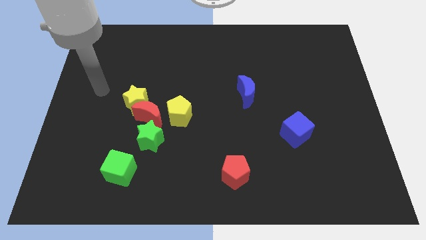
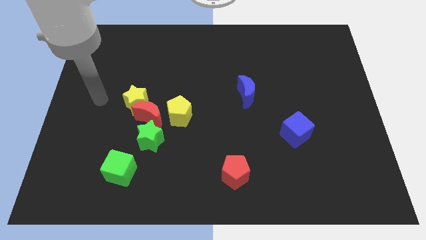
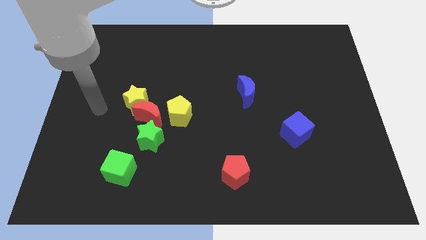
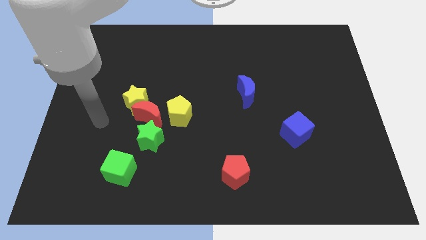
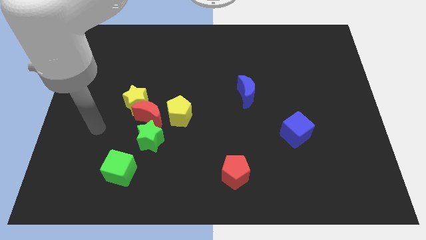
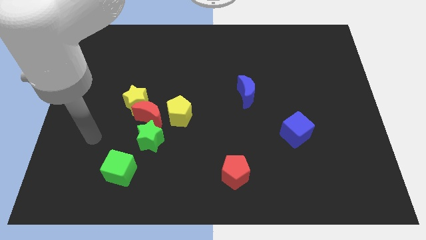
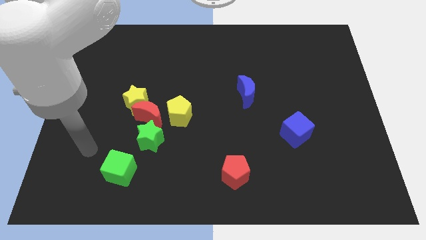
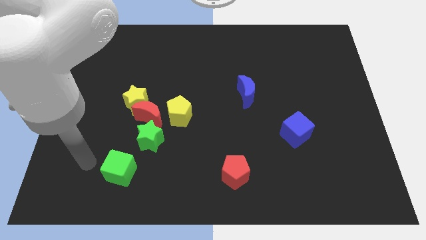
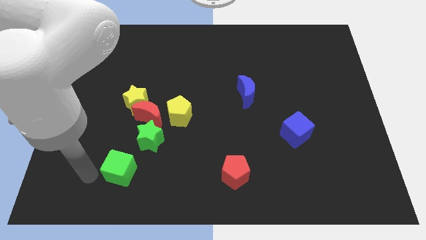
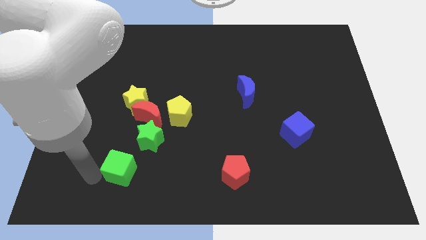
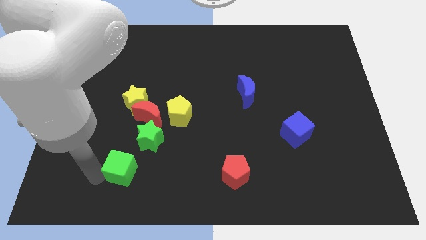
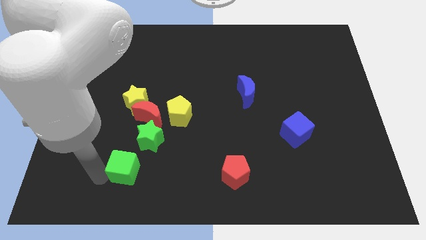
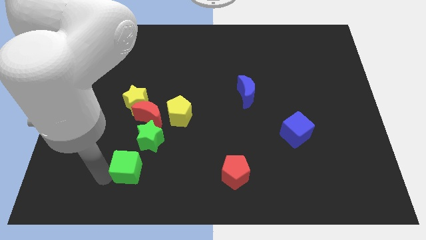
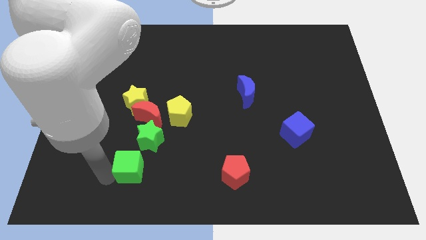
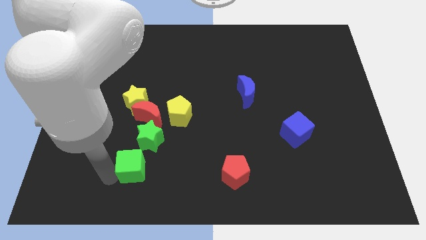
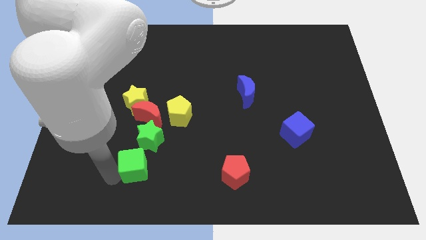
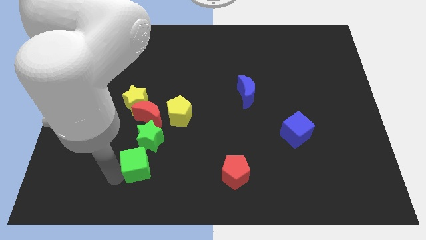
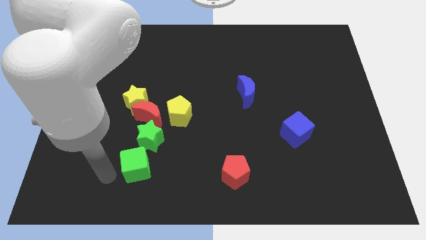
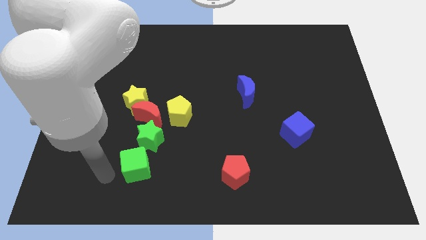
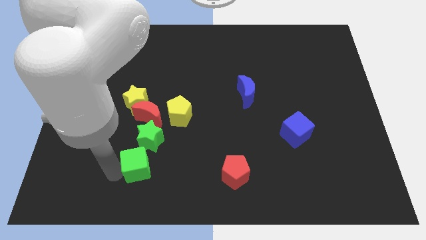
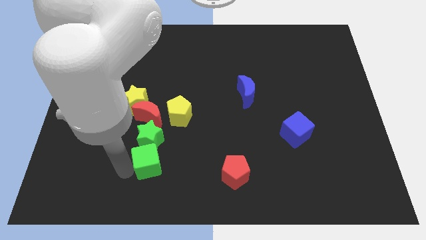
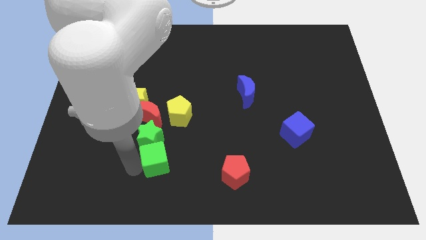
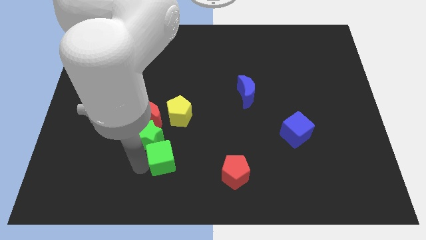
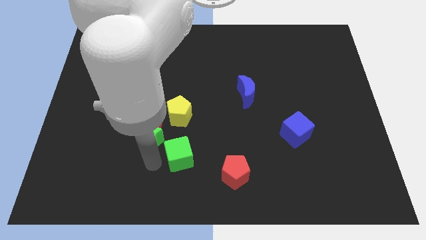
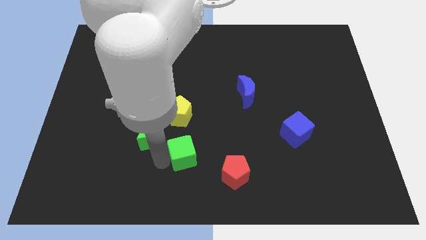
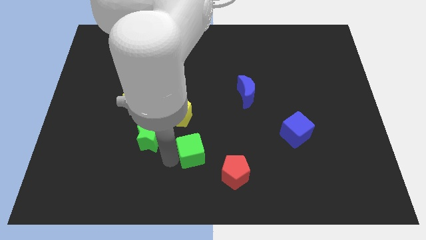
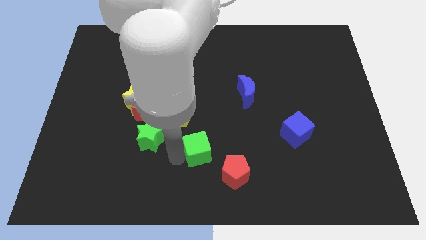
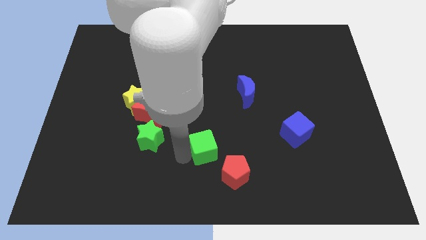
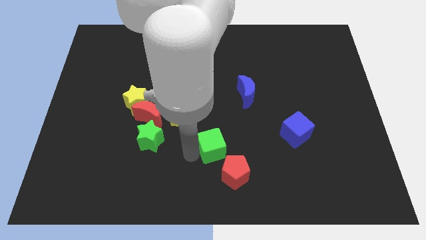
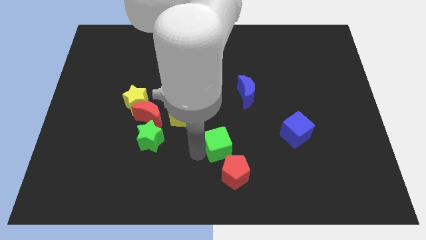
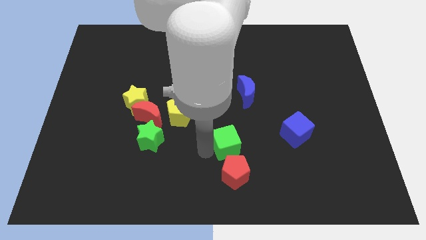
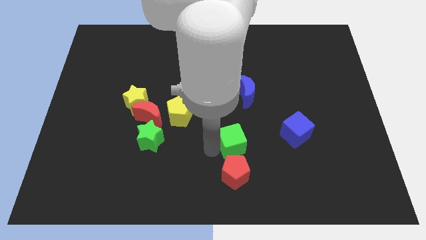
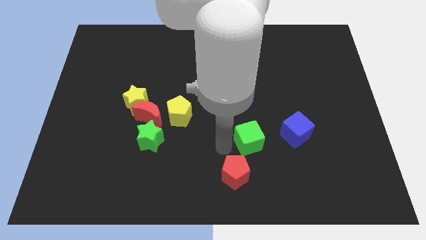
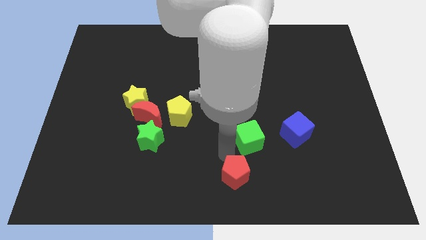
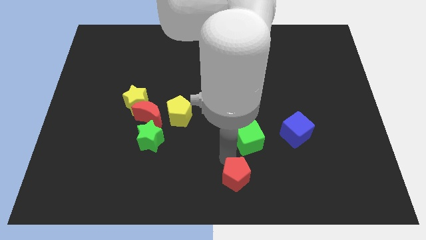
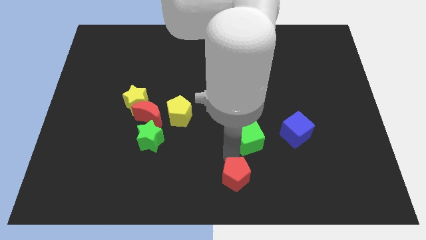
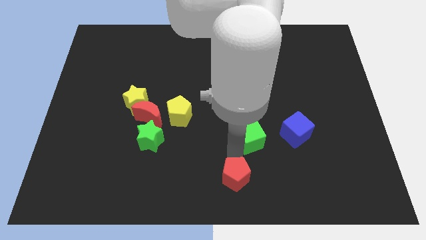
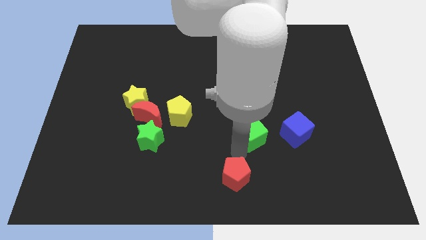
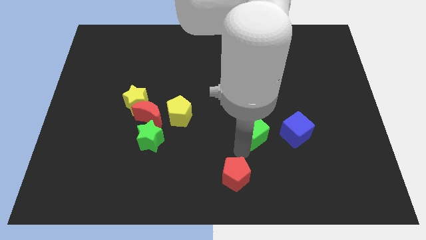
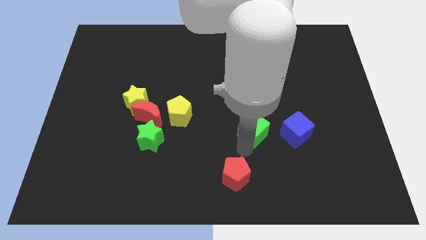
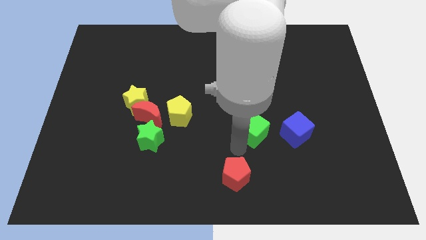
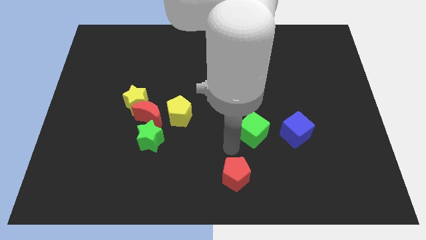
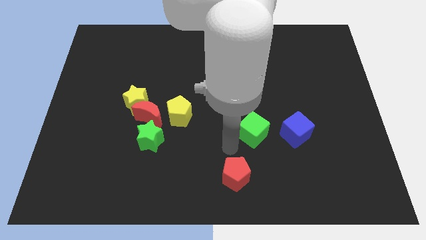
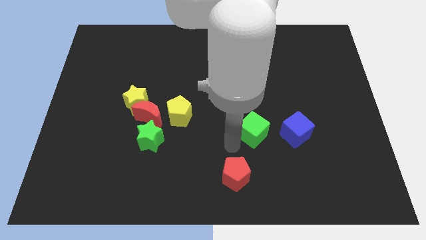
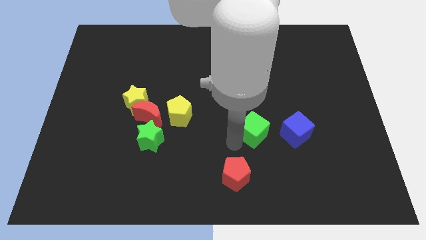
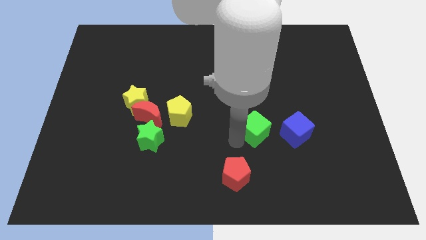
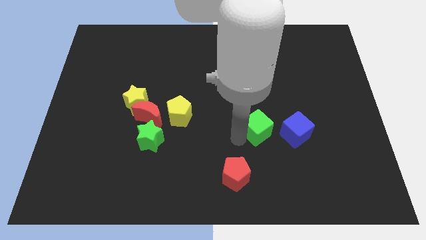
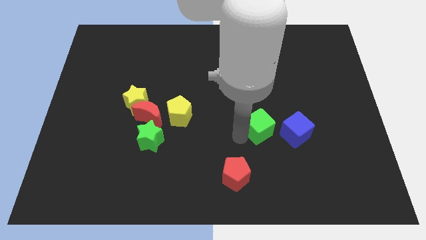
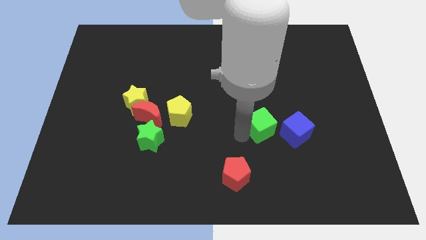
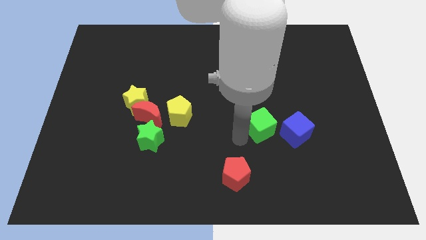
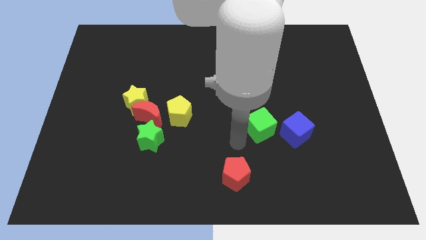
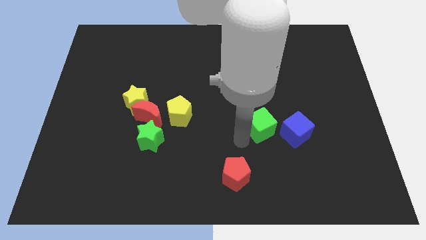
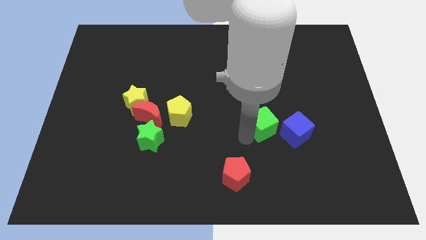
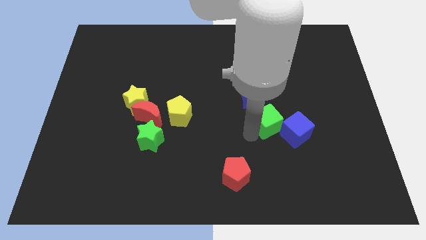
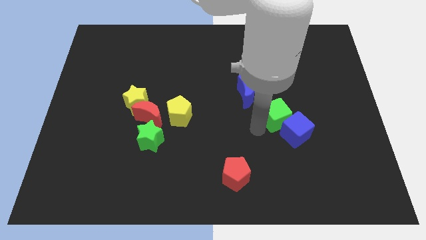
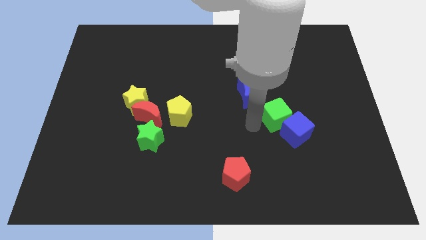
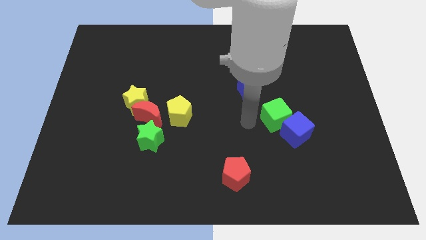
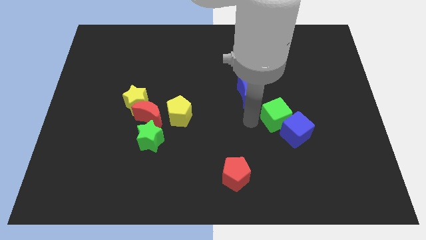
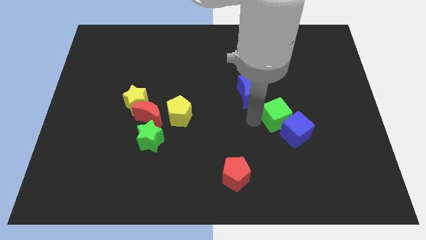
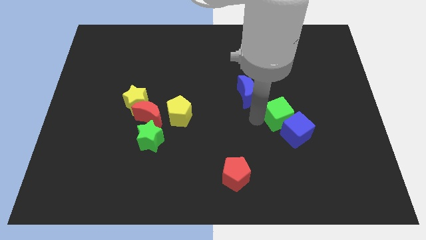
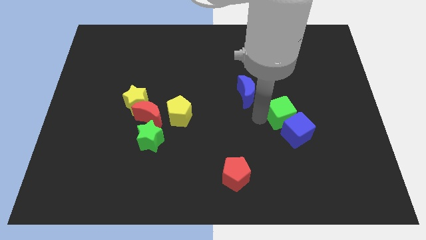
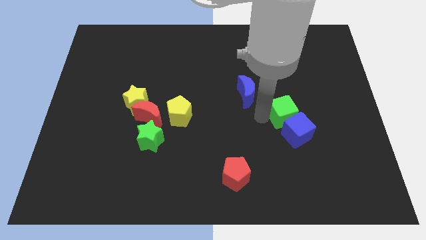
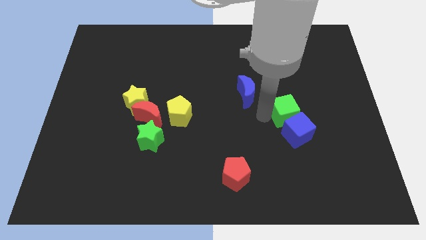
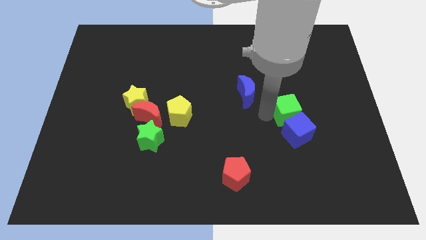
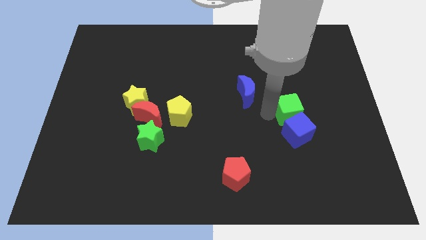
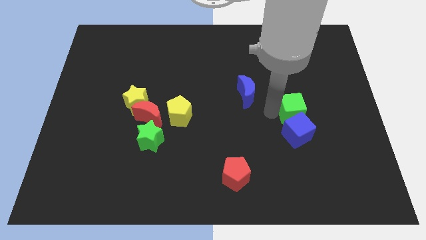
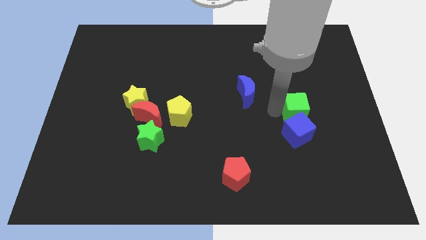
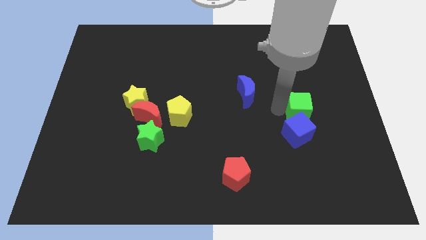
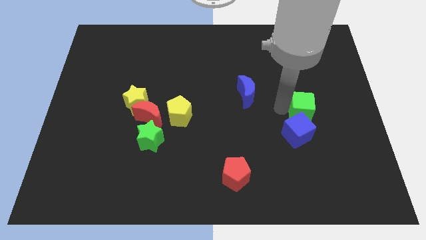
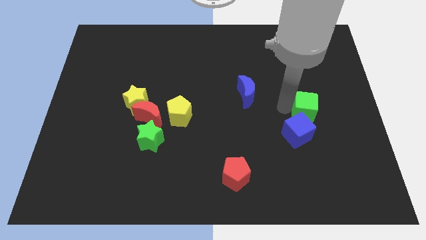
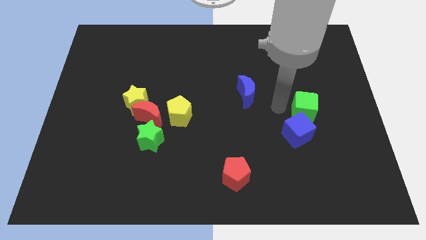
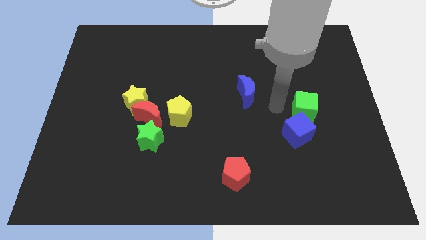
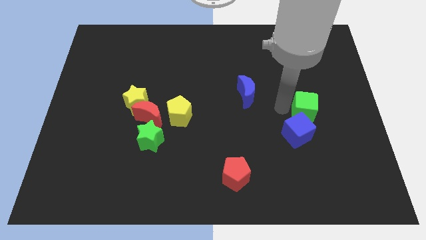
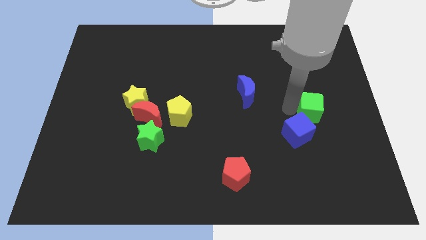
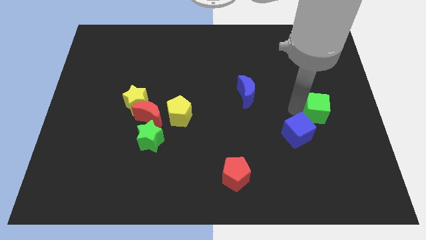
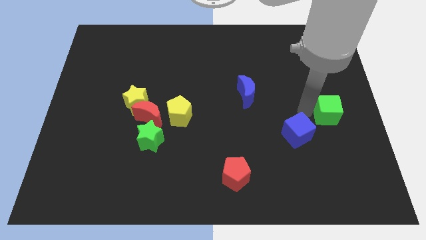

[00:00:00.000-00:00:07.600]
slide the green cube to the right side of the board

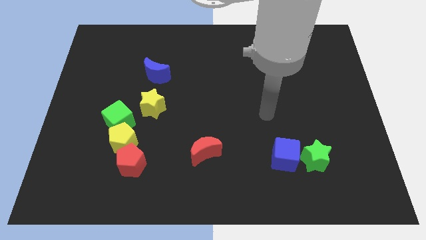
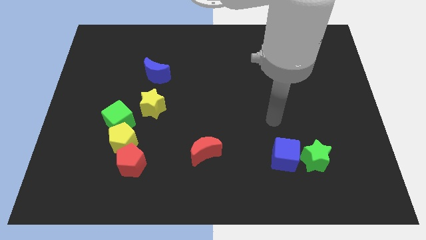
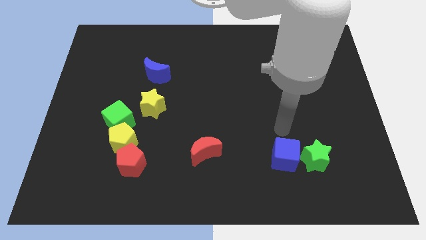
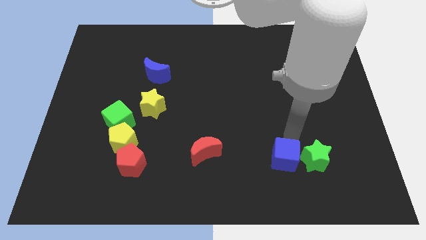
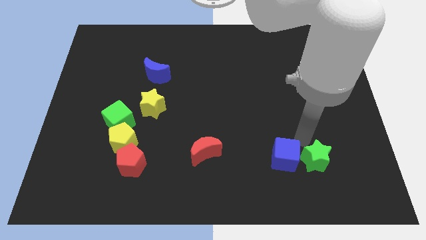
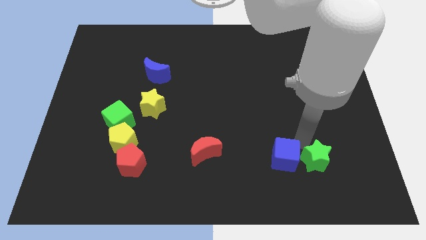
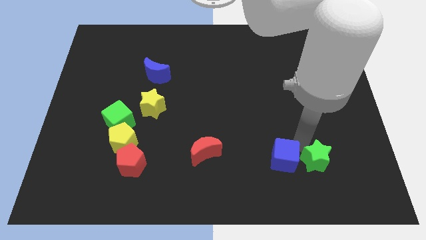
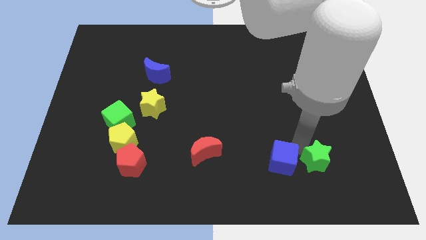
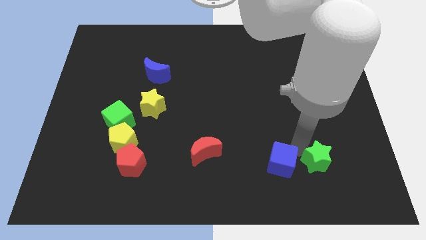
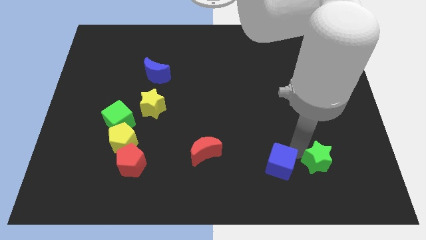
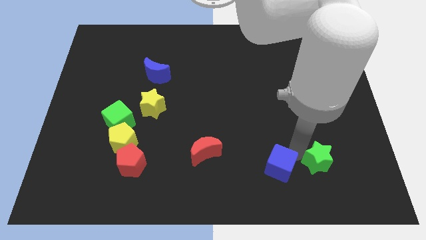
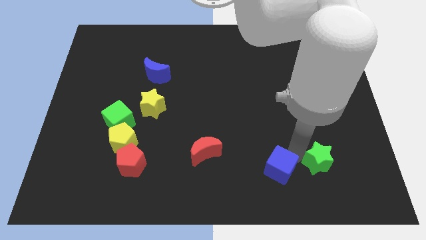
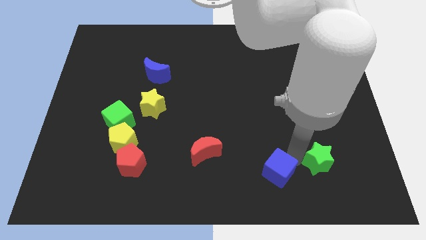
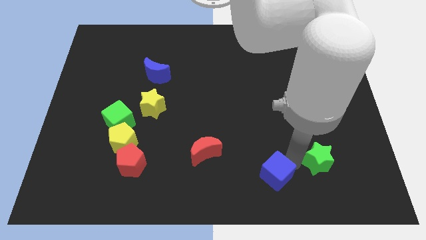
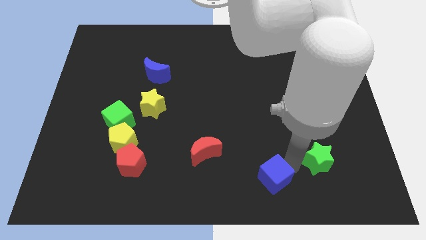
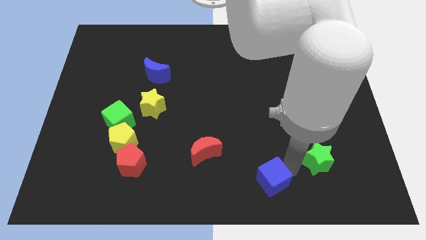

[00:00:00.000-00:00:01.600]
put the blue cube to the bottom
